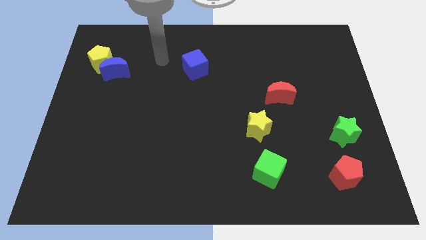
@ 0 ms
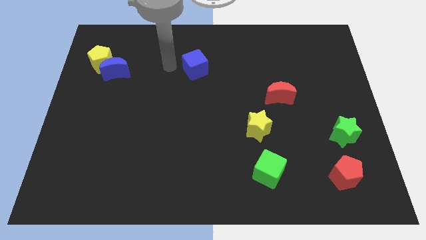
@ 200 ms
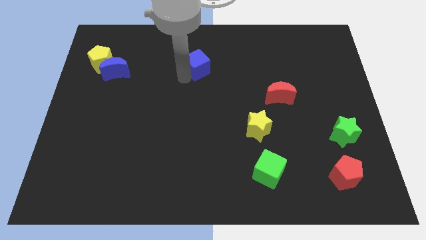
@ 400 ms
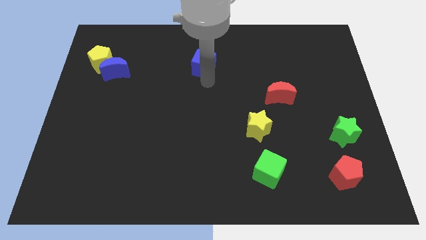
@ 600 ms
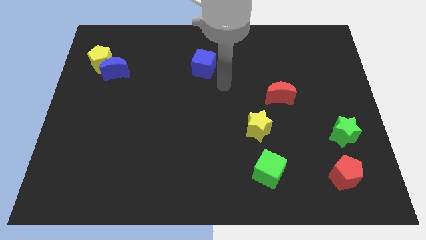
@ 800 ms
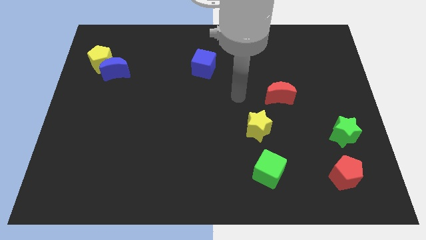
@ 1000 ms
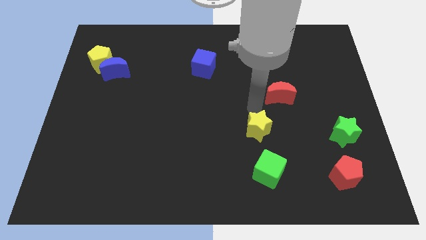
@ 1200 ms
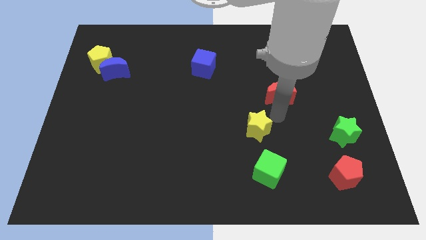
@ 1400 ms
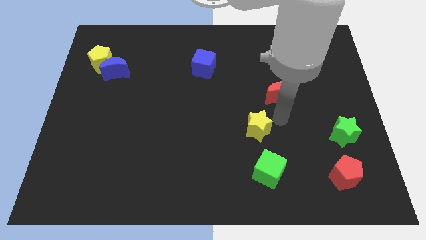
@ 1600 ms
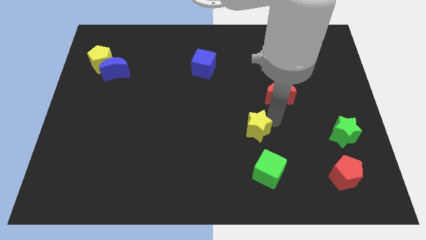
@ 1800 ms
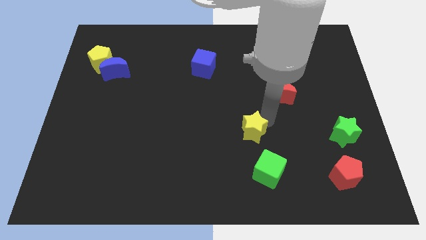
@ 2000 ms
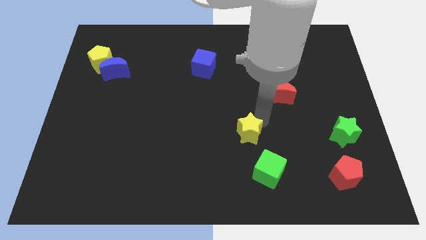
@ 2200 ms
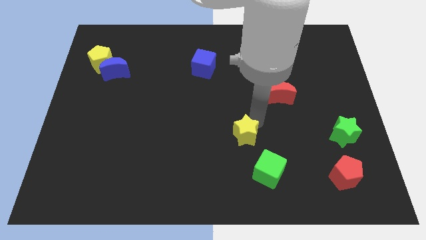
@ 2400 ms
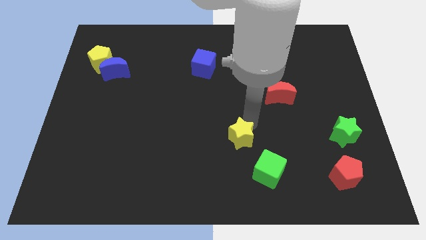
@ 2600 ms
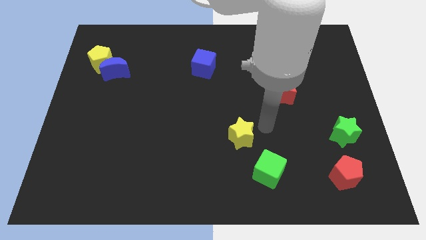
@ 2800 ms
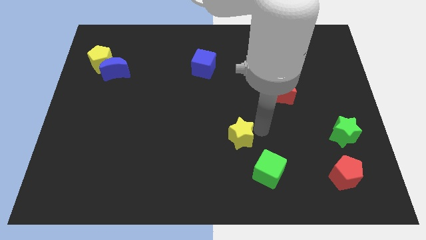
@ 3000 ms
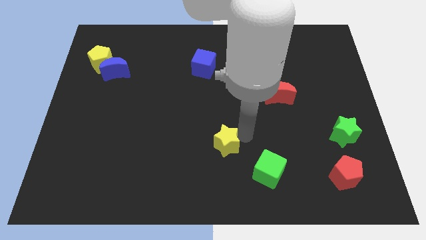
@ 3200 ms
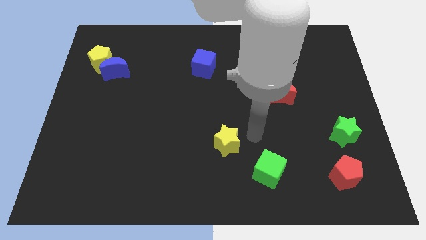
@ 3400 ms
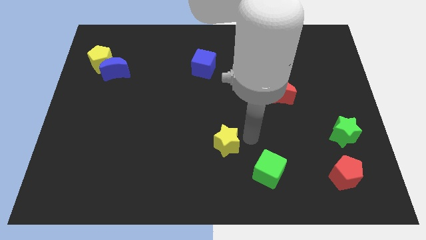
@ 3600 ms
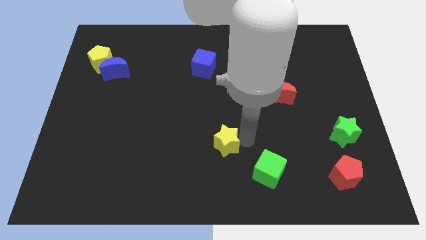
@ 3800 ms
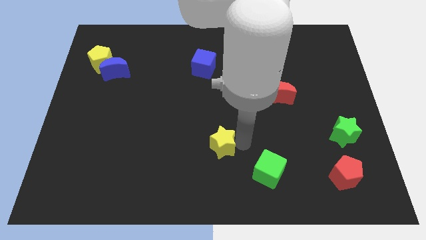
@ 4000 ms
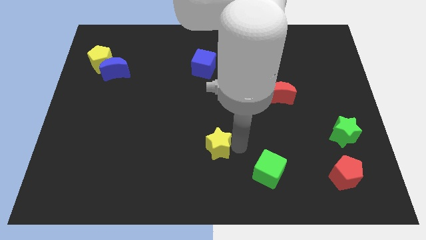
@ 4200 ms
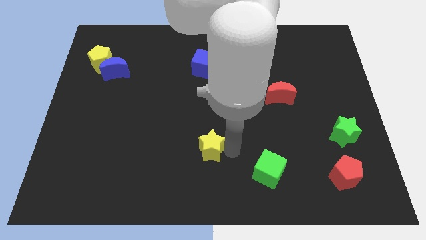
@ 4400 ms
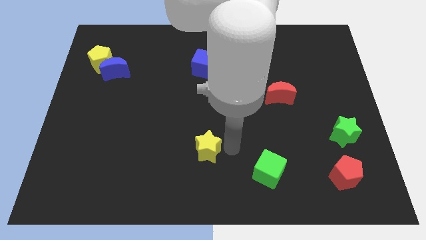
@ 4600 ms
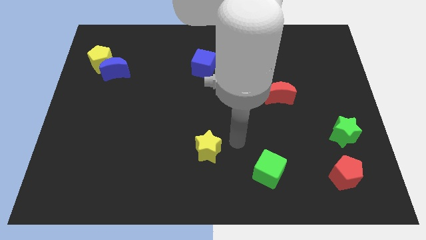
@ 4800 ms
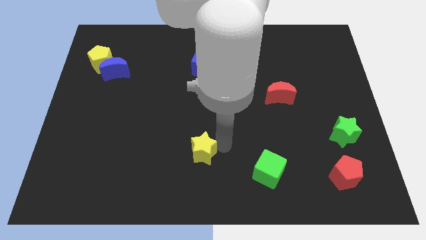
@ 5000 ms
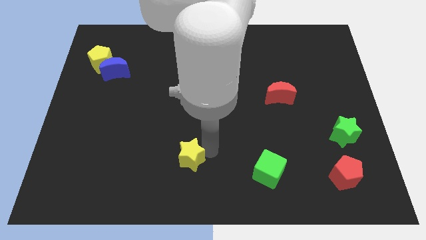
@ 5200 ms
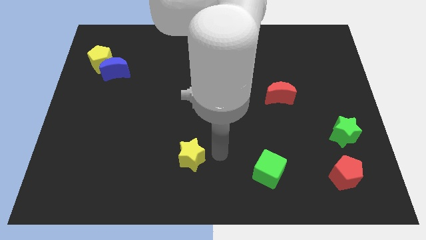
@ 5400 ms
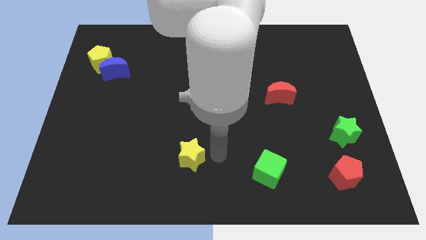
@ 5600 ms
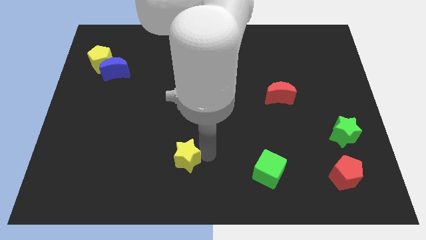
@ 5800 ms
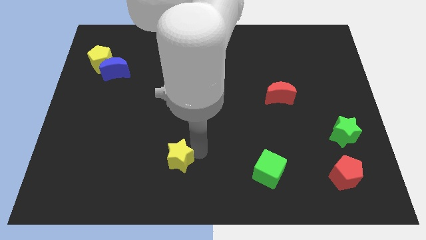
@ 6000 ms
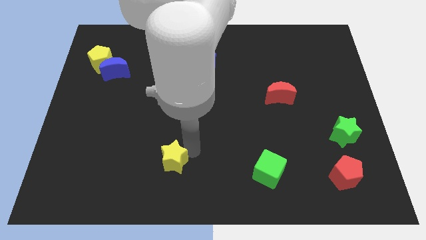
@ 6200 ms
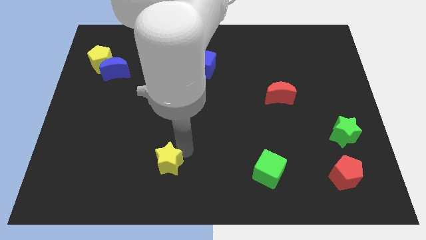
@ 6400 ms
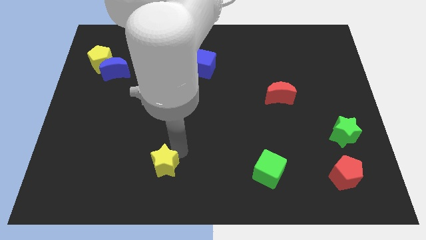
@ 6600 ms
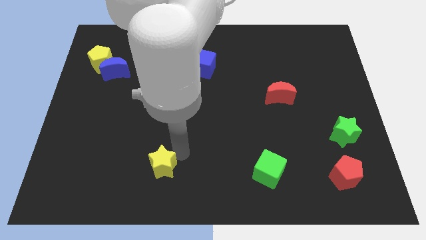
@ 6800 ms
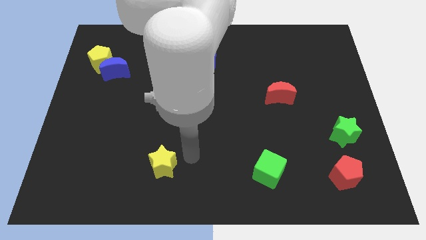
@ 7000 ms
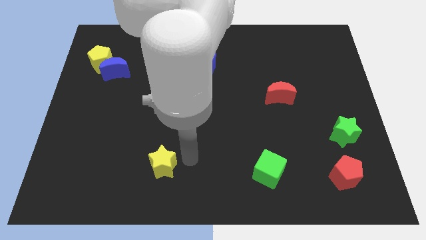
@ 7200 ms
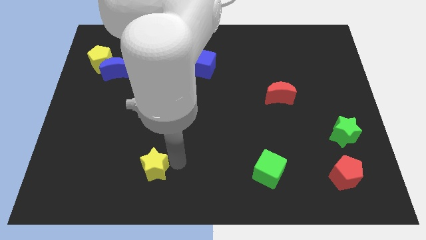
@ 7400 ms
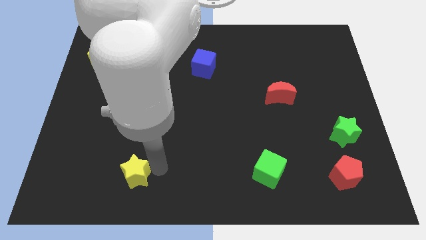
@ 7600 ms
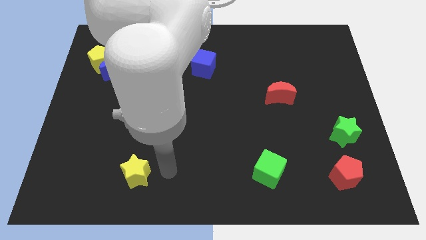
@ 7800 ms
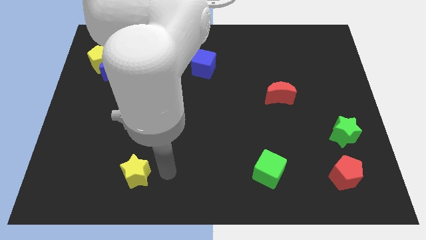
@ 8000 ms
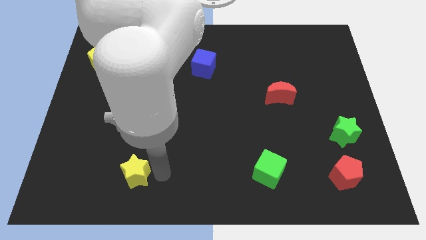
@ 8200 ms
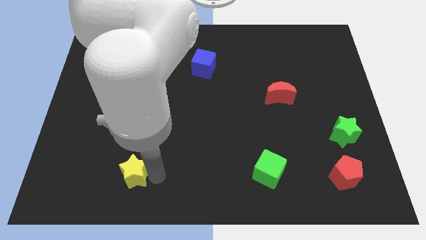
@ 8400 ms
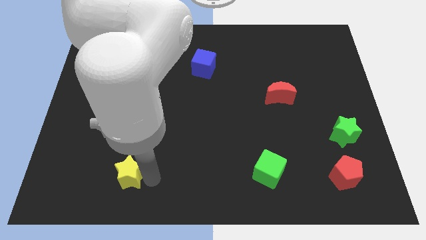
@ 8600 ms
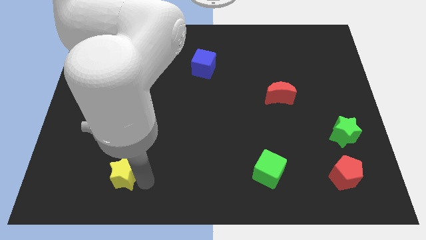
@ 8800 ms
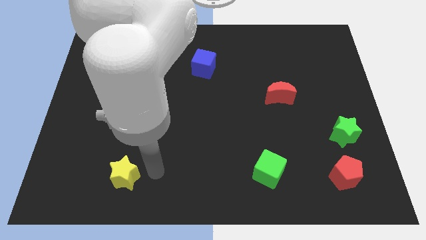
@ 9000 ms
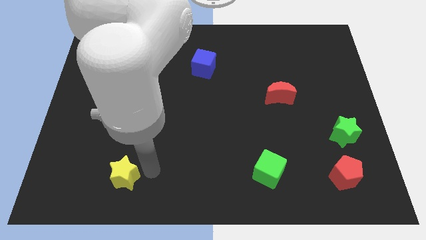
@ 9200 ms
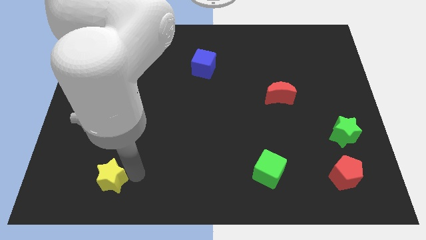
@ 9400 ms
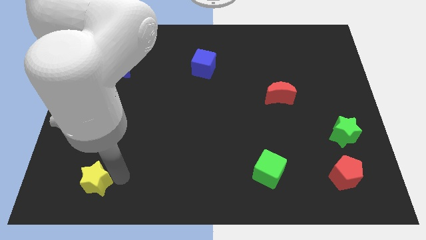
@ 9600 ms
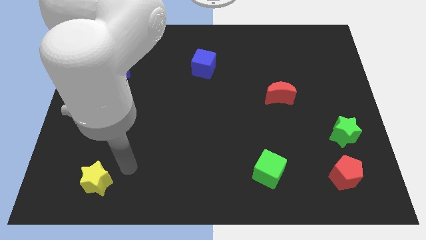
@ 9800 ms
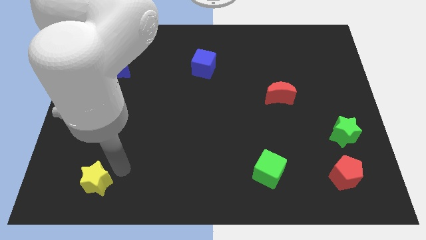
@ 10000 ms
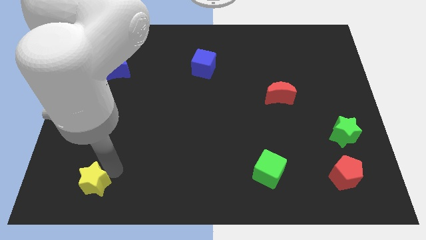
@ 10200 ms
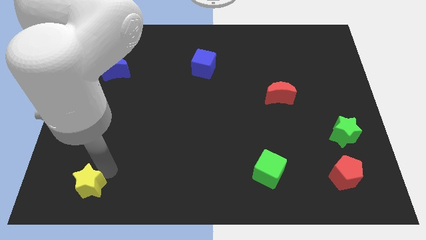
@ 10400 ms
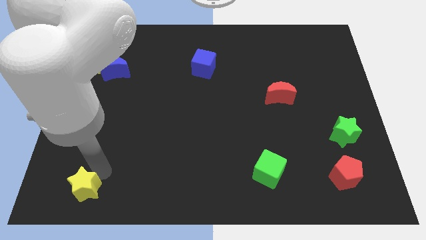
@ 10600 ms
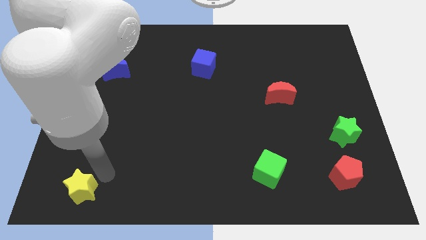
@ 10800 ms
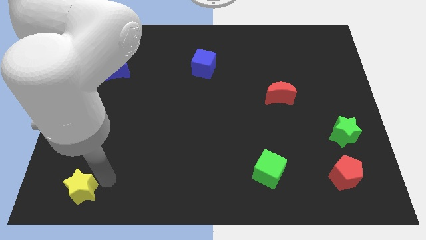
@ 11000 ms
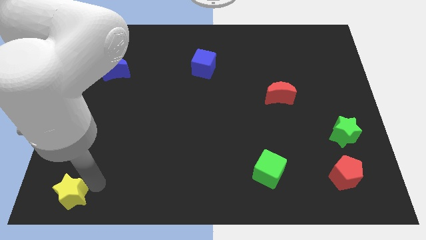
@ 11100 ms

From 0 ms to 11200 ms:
push the yellow star to the bottom left corner

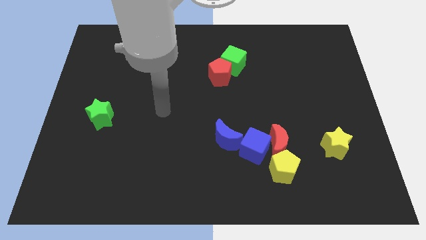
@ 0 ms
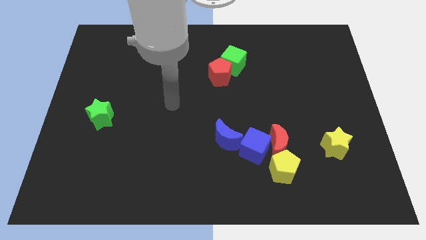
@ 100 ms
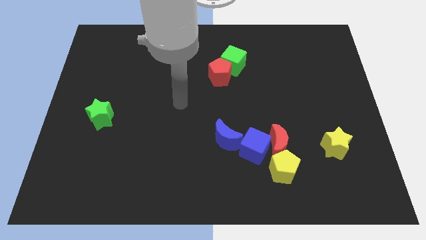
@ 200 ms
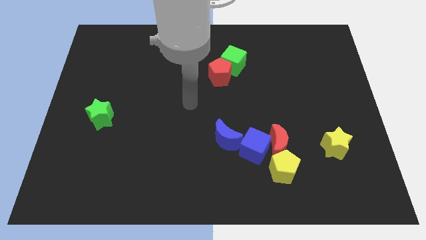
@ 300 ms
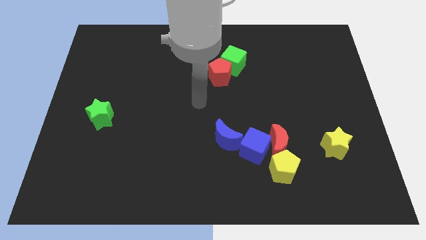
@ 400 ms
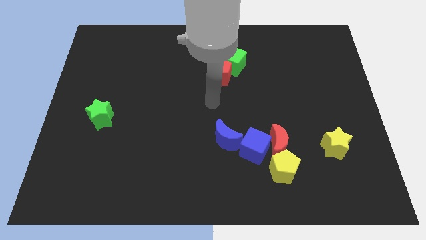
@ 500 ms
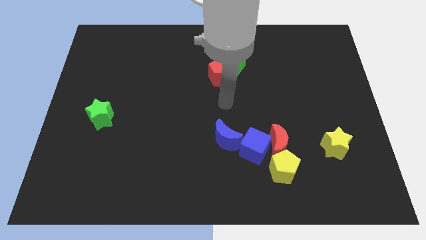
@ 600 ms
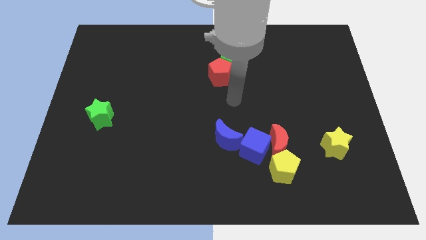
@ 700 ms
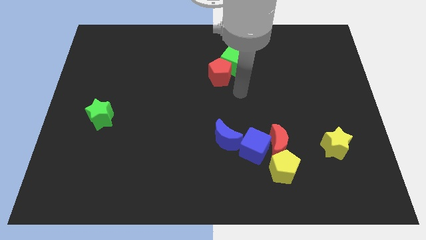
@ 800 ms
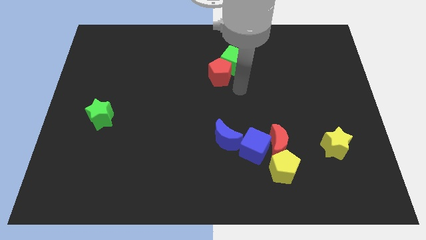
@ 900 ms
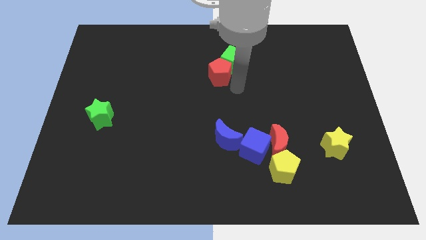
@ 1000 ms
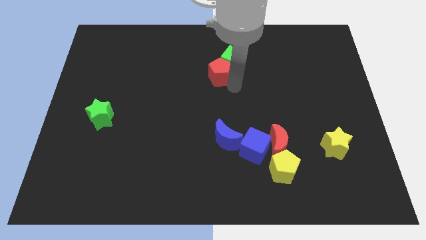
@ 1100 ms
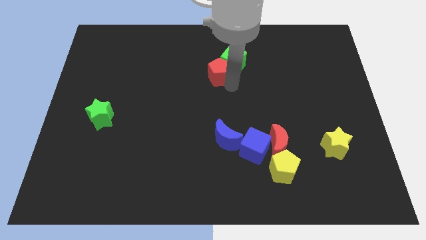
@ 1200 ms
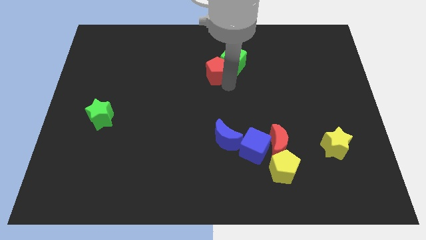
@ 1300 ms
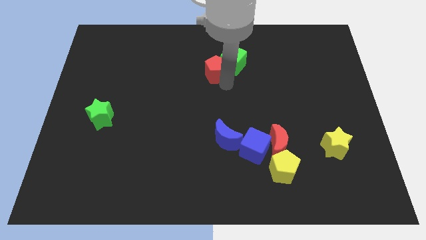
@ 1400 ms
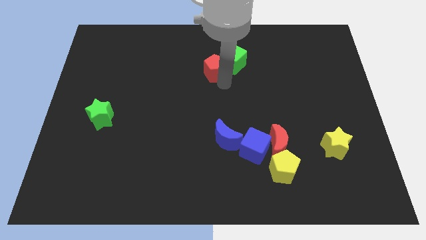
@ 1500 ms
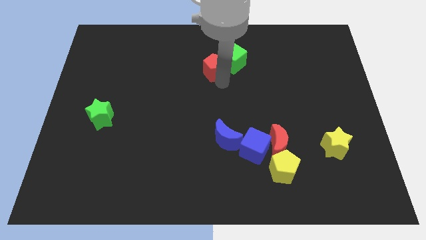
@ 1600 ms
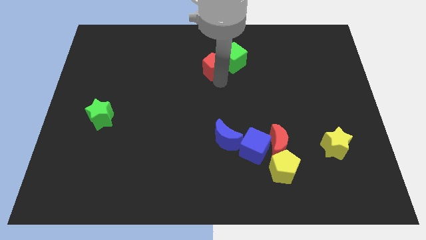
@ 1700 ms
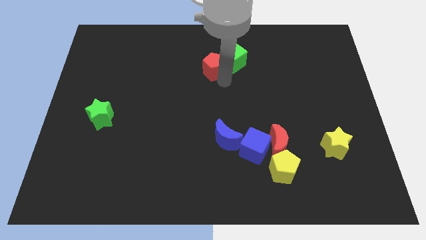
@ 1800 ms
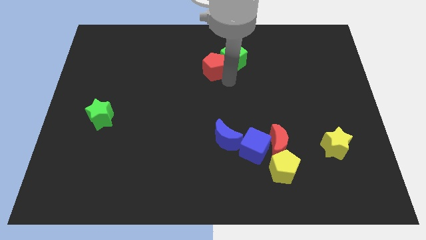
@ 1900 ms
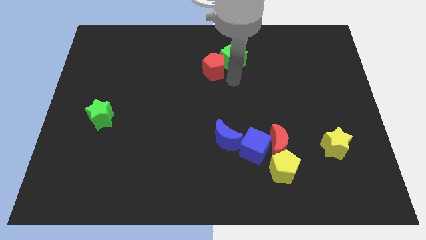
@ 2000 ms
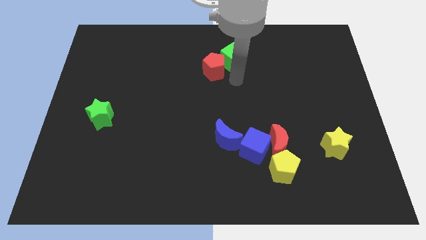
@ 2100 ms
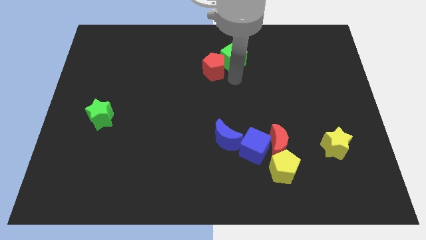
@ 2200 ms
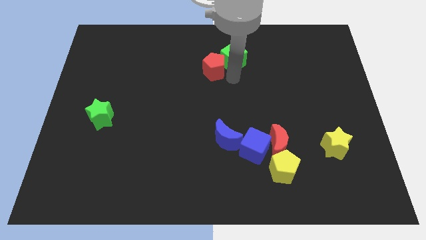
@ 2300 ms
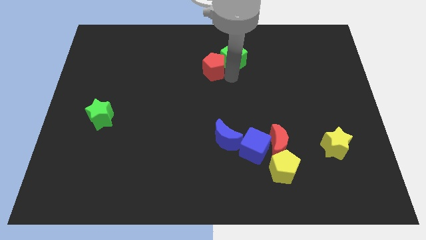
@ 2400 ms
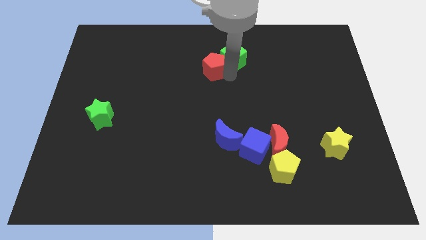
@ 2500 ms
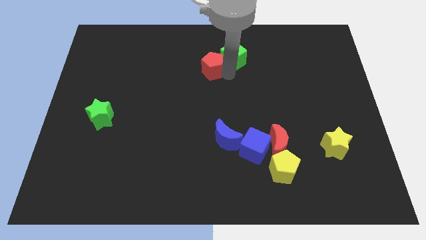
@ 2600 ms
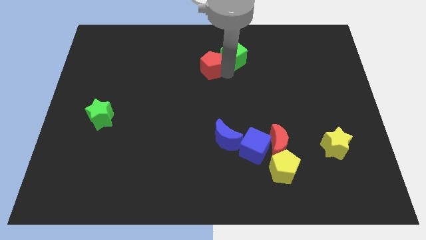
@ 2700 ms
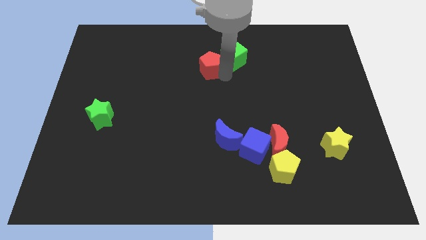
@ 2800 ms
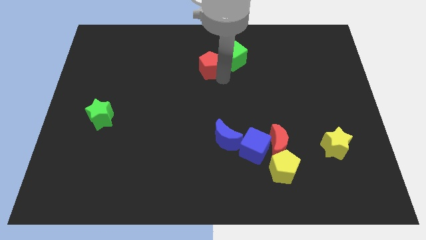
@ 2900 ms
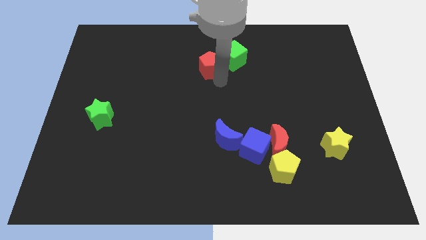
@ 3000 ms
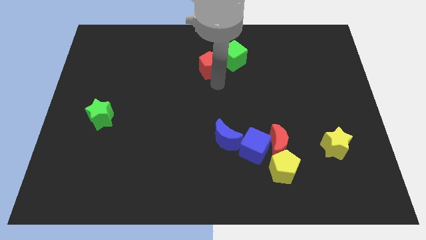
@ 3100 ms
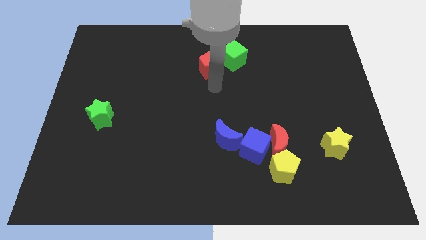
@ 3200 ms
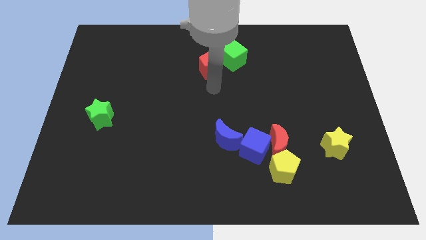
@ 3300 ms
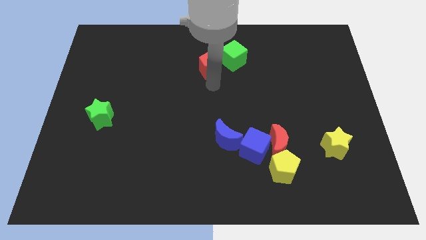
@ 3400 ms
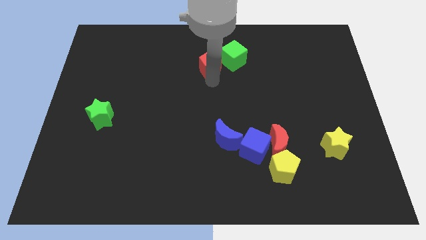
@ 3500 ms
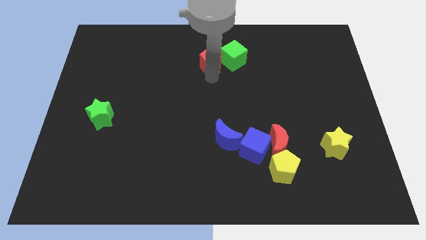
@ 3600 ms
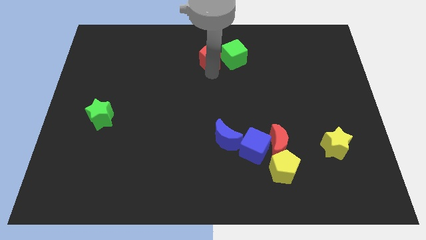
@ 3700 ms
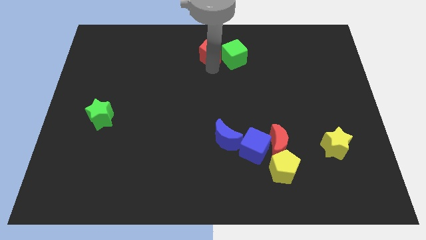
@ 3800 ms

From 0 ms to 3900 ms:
push the red pentagon to the top
